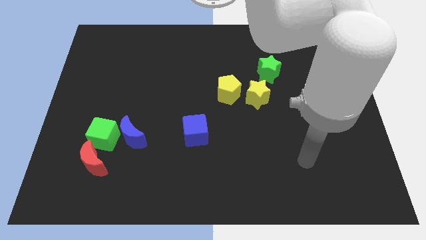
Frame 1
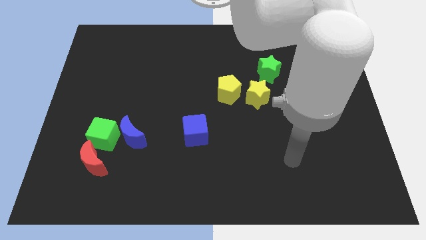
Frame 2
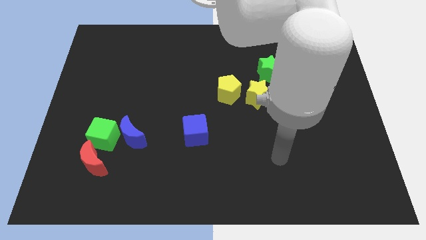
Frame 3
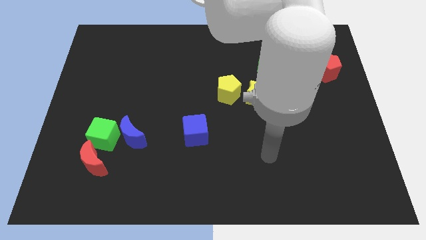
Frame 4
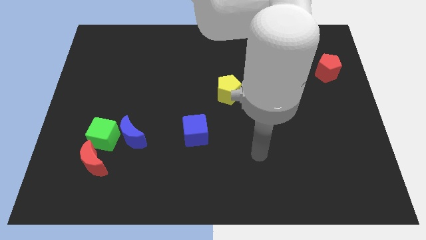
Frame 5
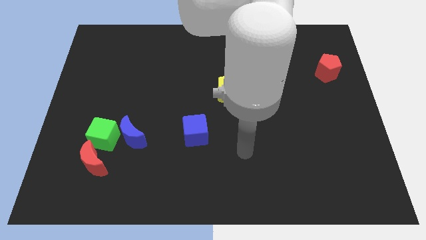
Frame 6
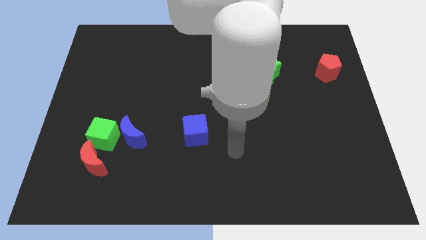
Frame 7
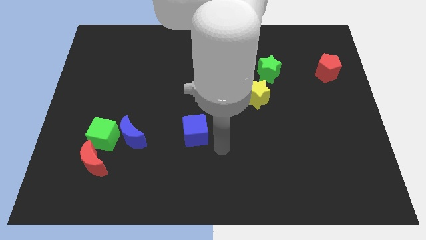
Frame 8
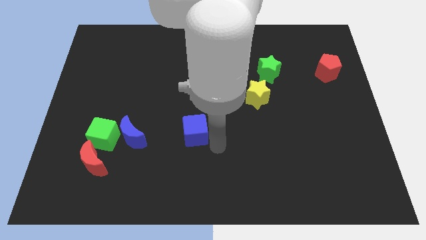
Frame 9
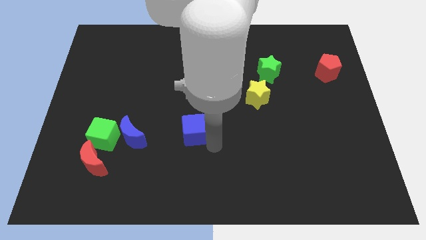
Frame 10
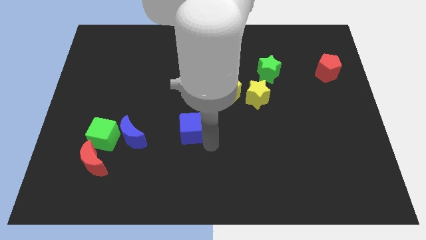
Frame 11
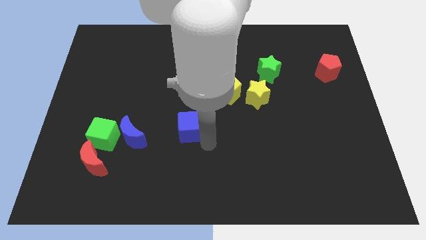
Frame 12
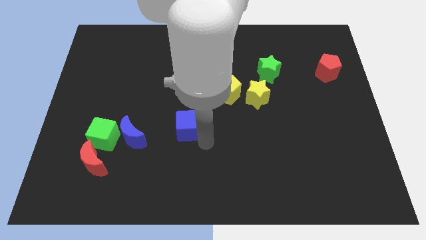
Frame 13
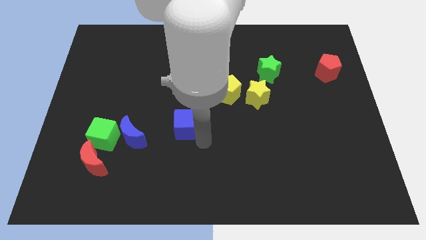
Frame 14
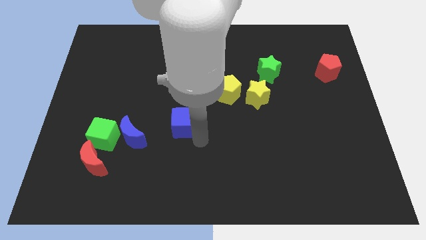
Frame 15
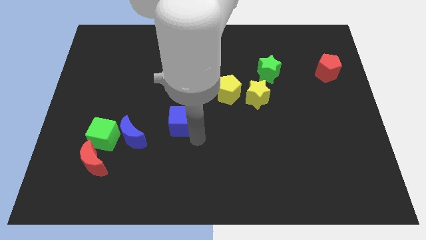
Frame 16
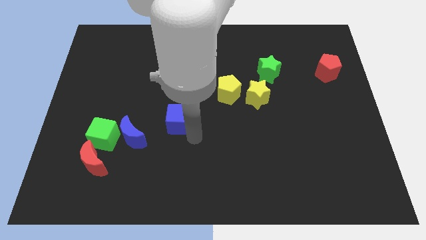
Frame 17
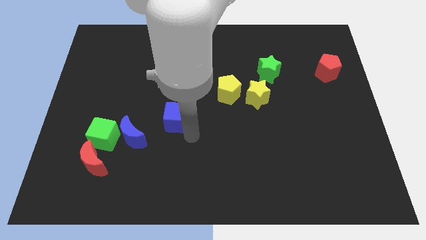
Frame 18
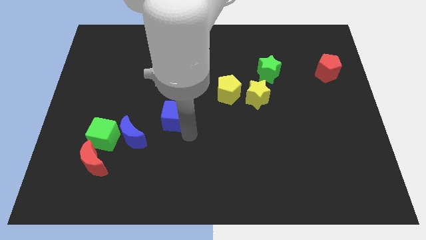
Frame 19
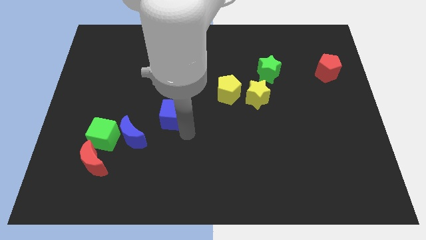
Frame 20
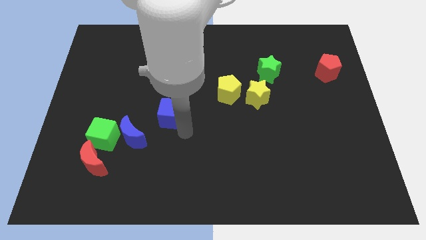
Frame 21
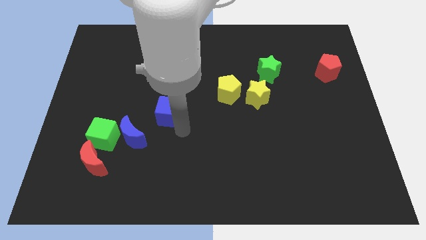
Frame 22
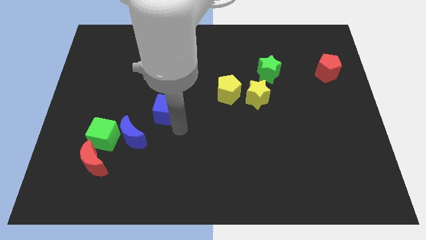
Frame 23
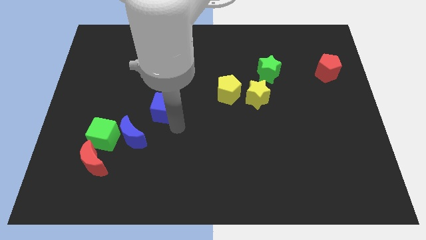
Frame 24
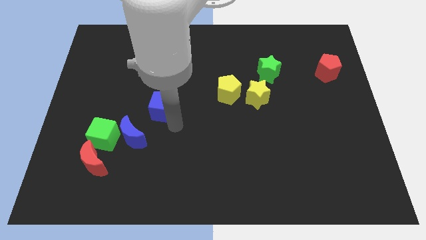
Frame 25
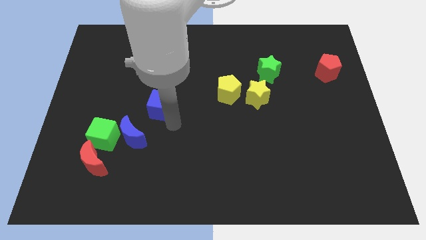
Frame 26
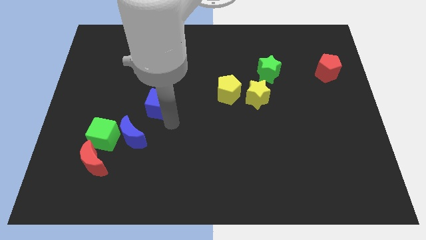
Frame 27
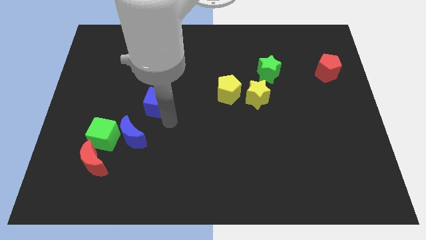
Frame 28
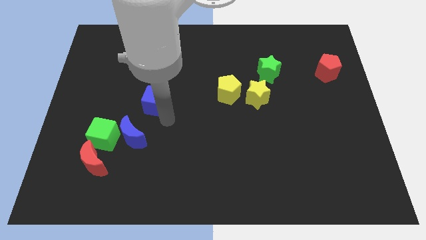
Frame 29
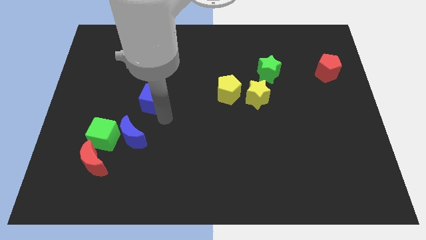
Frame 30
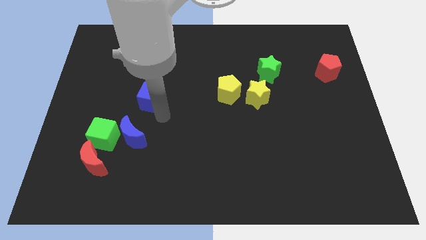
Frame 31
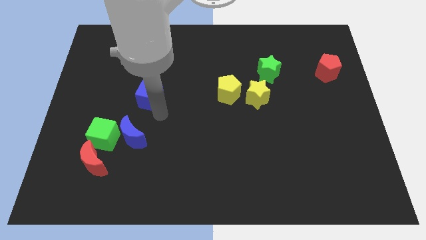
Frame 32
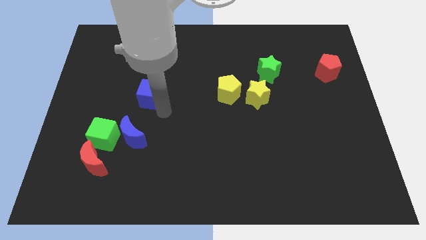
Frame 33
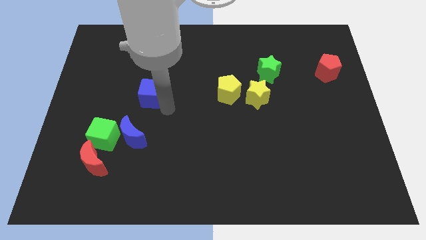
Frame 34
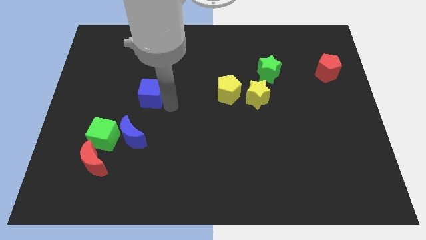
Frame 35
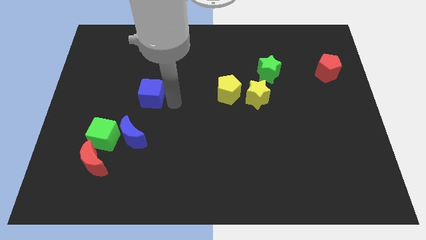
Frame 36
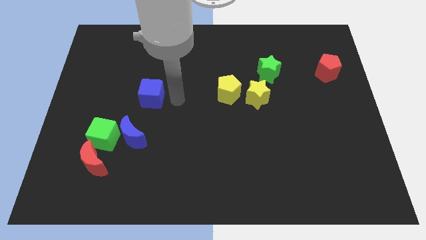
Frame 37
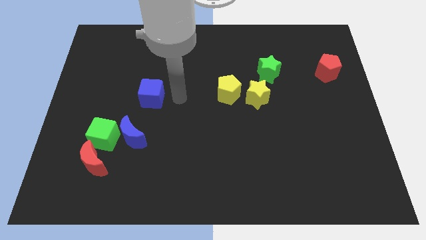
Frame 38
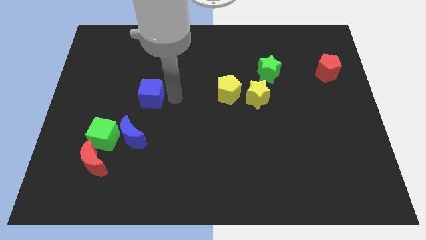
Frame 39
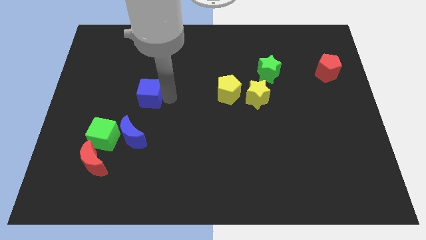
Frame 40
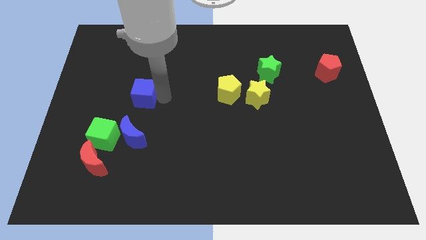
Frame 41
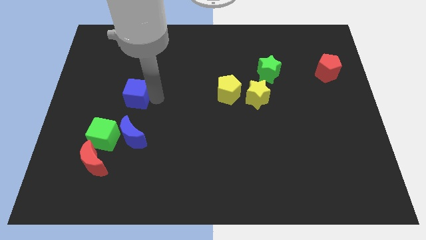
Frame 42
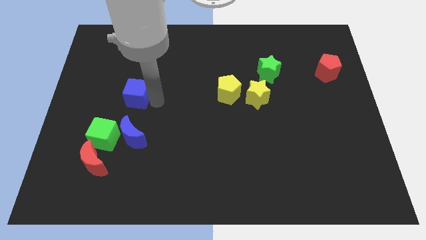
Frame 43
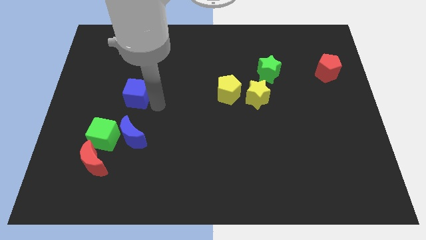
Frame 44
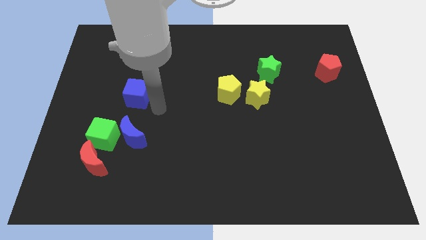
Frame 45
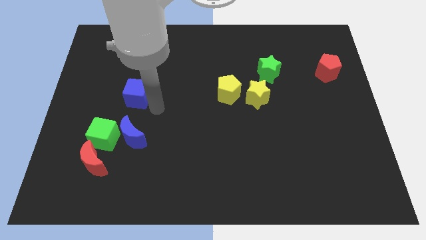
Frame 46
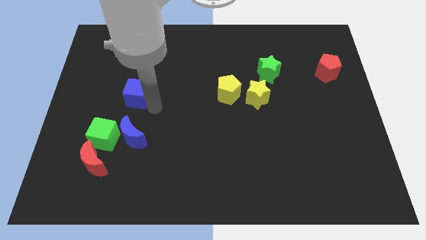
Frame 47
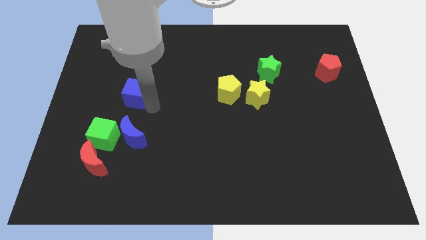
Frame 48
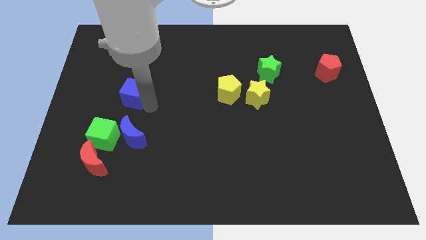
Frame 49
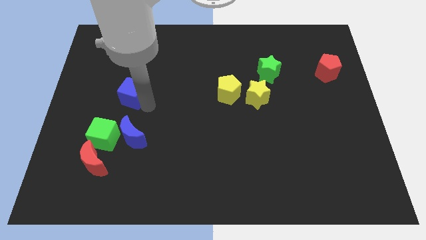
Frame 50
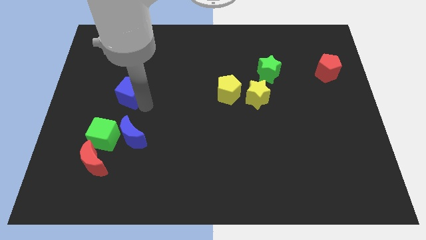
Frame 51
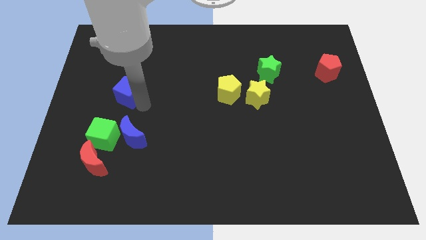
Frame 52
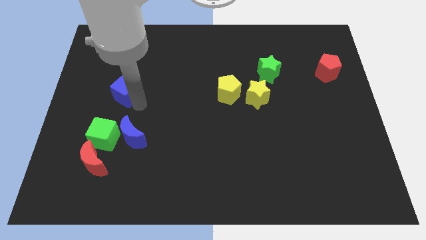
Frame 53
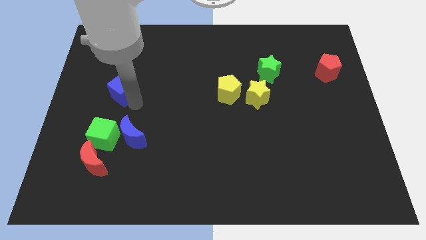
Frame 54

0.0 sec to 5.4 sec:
push the blue cube upwards and left

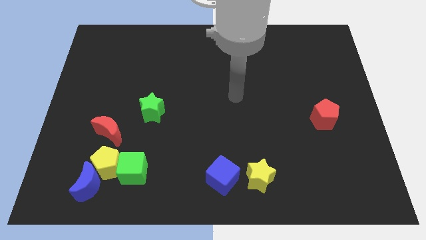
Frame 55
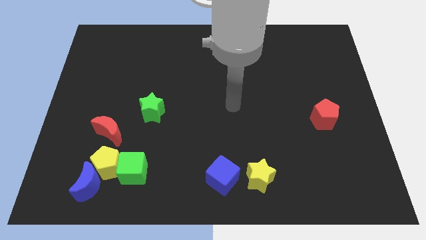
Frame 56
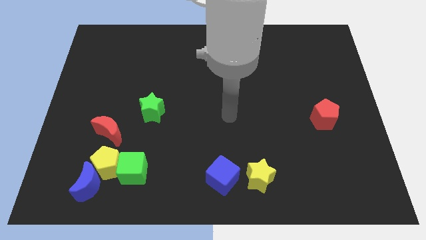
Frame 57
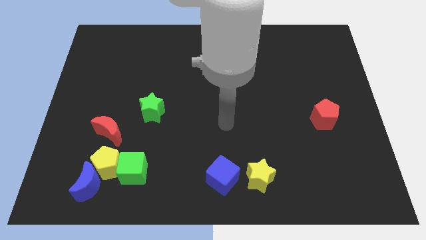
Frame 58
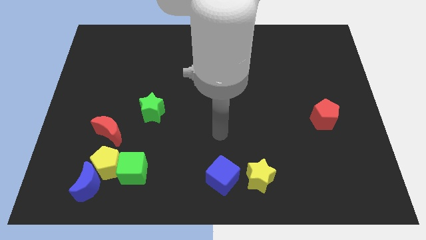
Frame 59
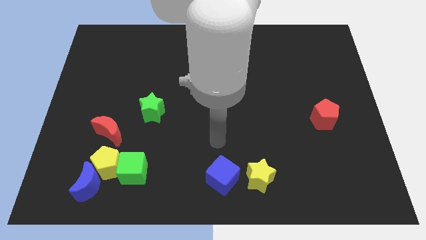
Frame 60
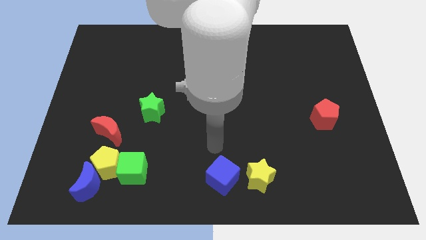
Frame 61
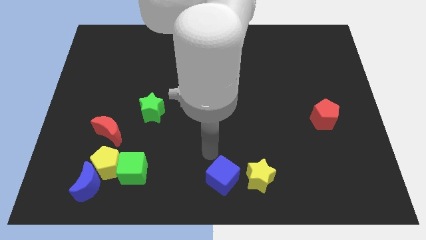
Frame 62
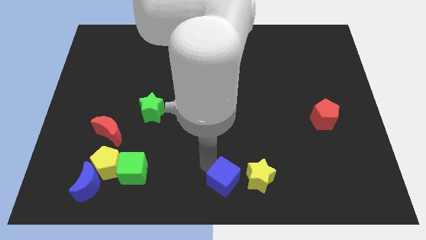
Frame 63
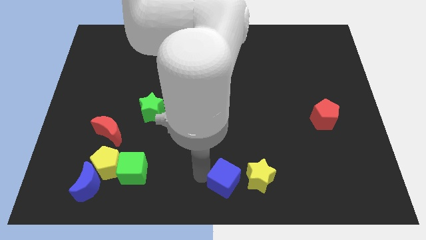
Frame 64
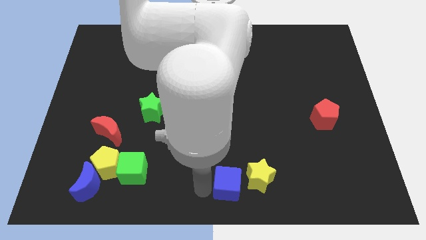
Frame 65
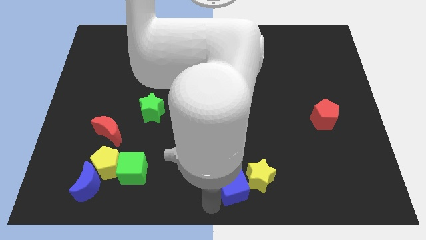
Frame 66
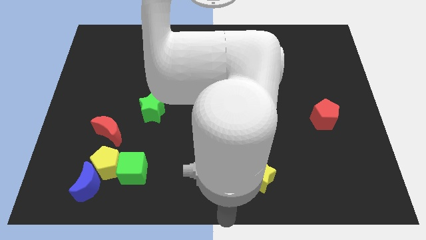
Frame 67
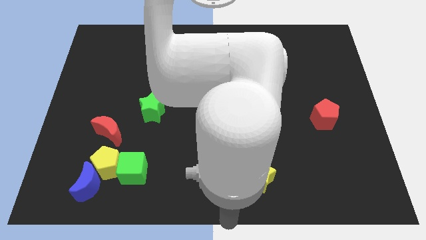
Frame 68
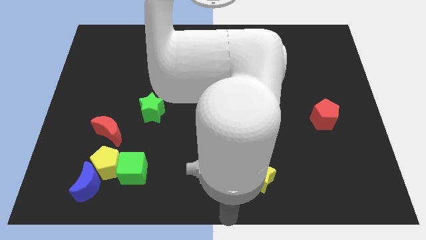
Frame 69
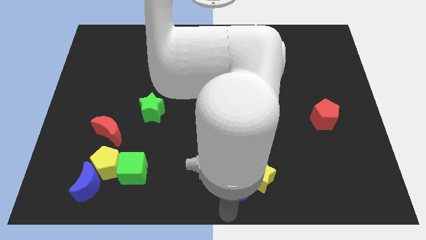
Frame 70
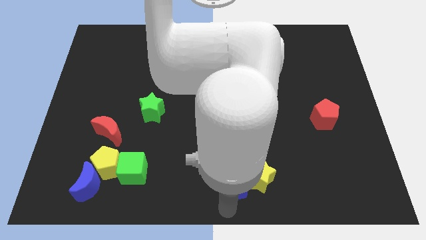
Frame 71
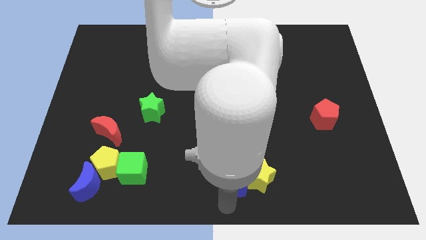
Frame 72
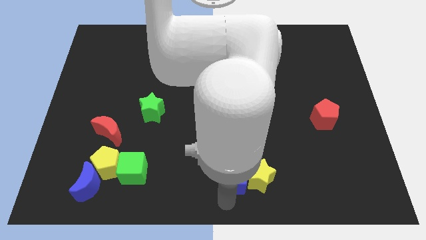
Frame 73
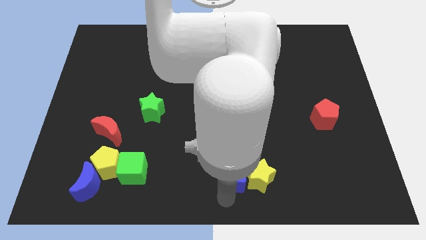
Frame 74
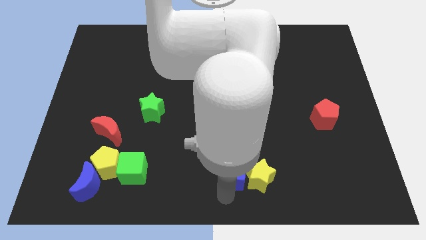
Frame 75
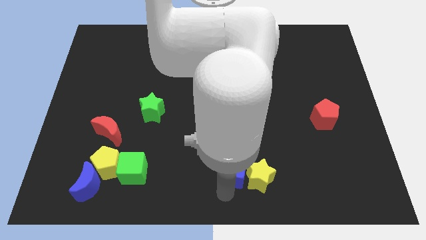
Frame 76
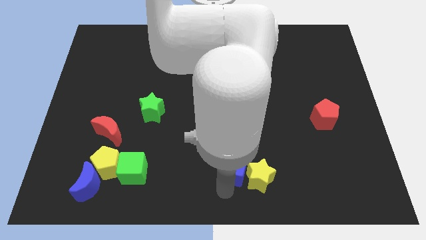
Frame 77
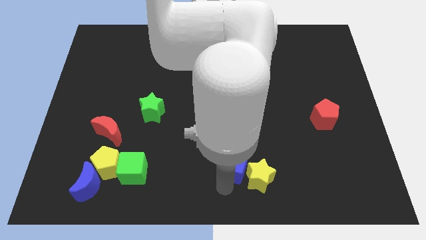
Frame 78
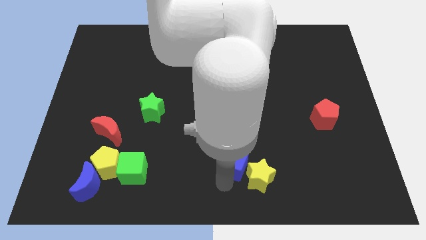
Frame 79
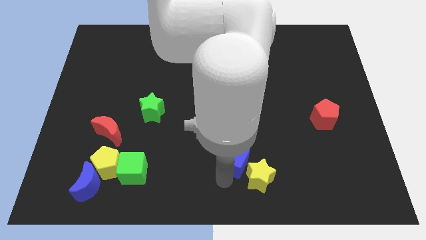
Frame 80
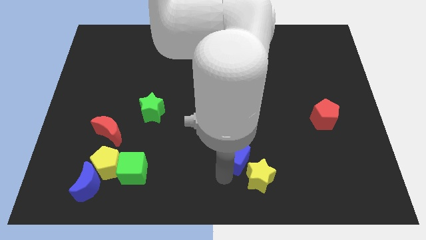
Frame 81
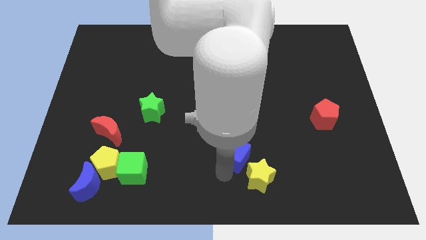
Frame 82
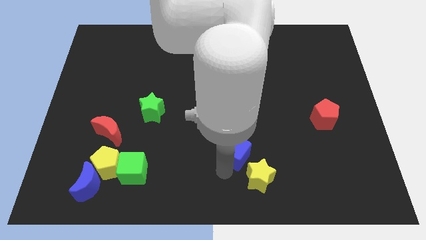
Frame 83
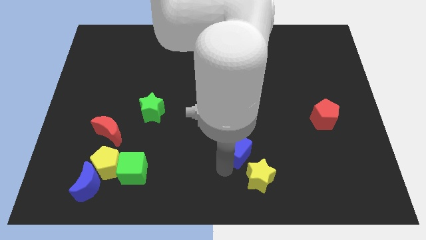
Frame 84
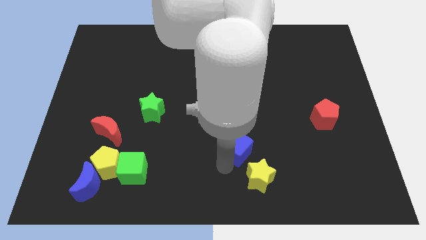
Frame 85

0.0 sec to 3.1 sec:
slide the blue cube a little bit upwards and right diagonally

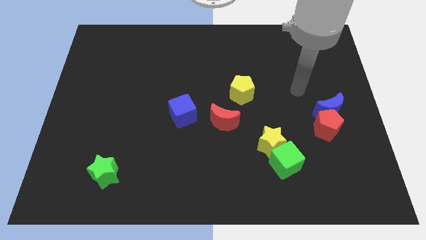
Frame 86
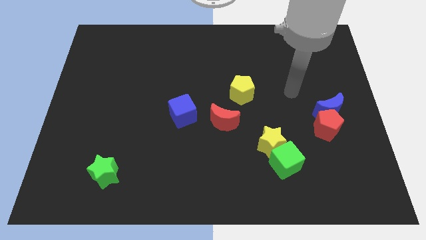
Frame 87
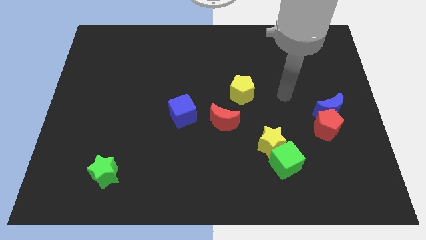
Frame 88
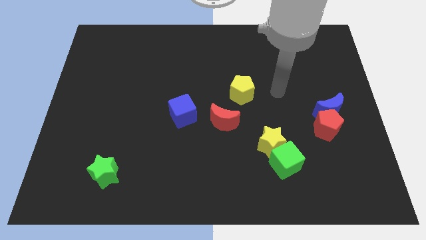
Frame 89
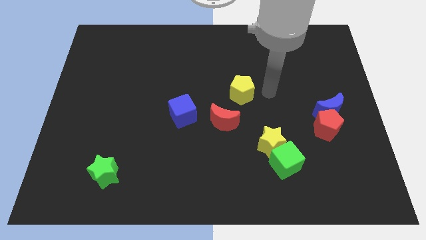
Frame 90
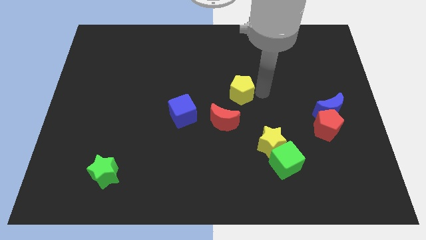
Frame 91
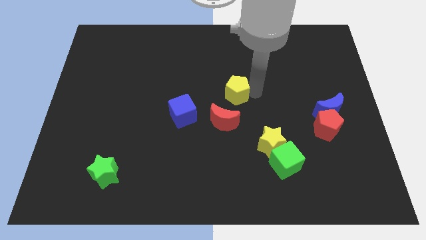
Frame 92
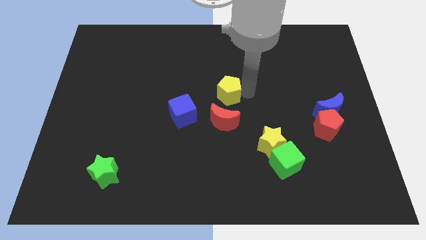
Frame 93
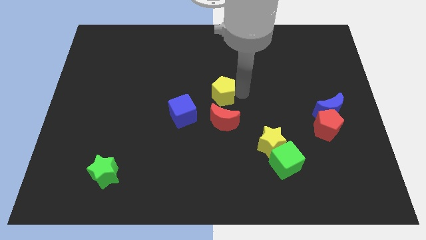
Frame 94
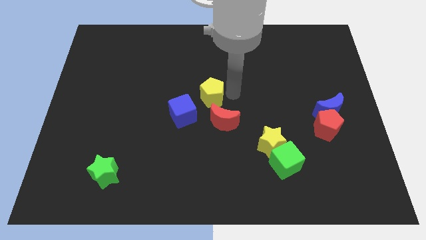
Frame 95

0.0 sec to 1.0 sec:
slide the yellow pentagon slightly to the left
